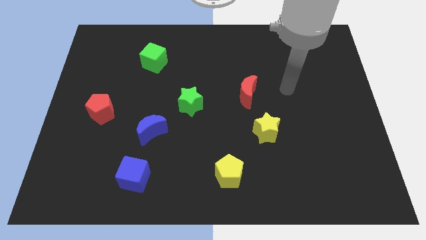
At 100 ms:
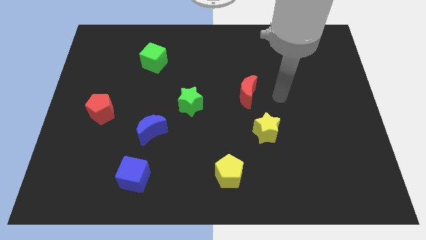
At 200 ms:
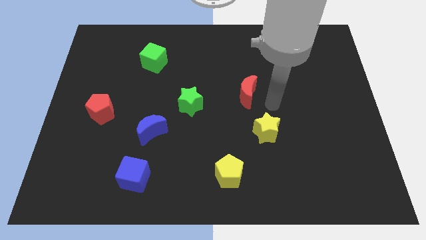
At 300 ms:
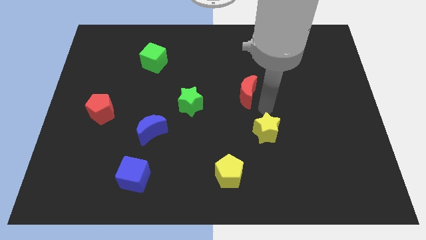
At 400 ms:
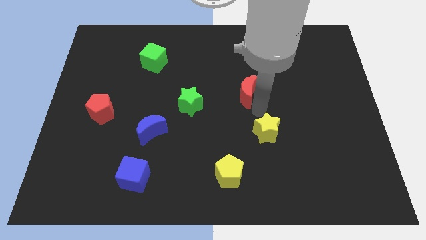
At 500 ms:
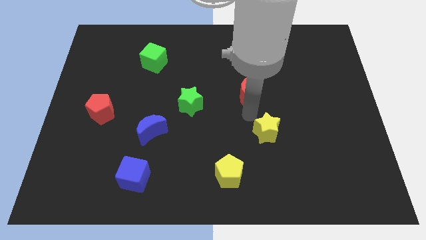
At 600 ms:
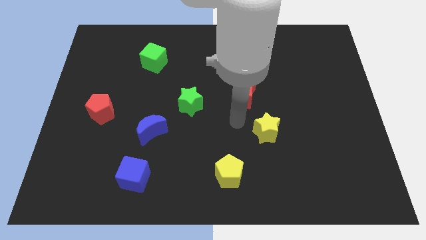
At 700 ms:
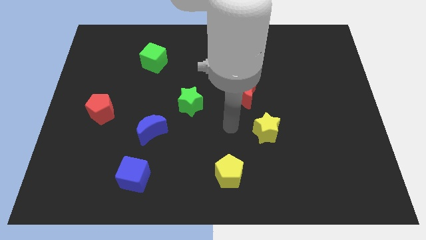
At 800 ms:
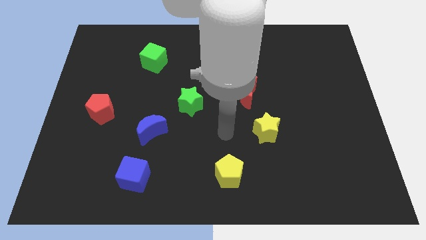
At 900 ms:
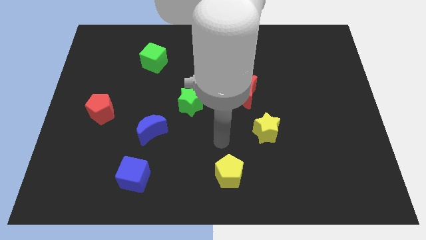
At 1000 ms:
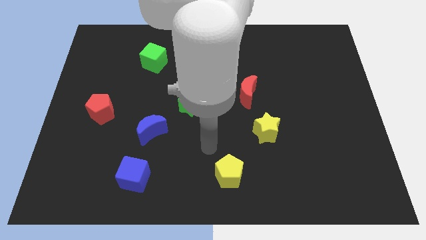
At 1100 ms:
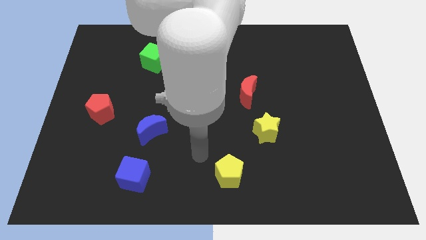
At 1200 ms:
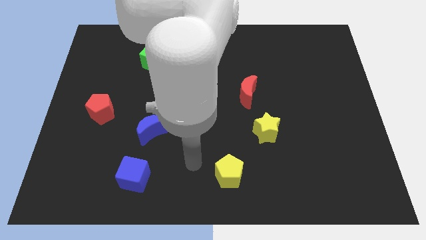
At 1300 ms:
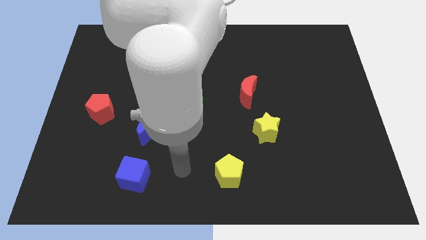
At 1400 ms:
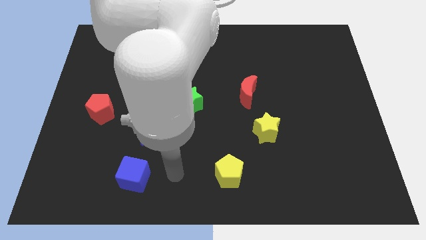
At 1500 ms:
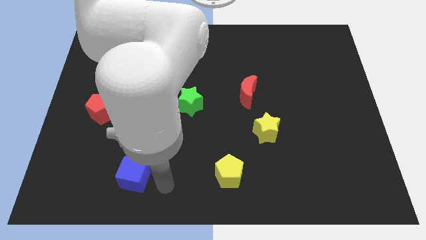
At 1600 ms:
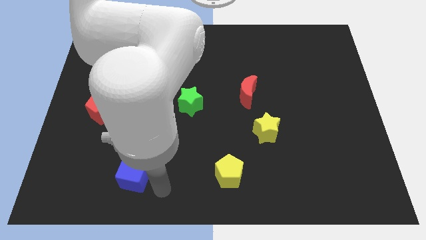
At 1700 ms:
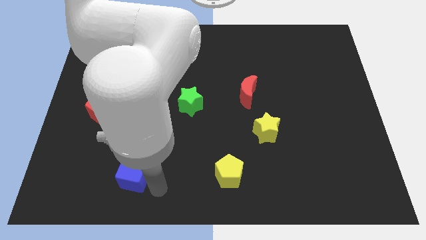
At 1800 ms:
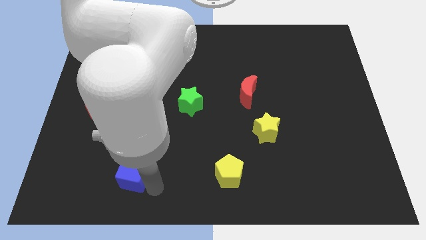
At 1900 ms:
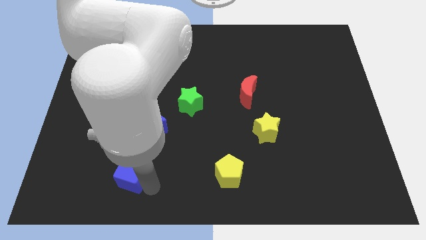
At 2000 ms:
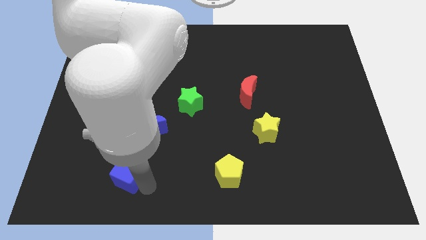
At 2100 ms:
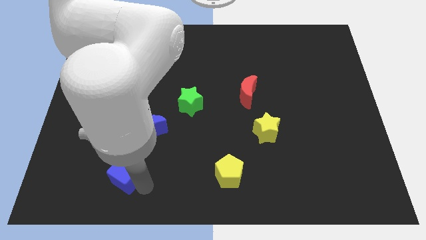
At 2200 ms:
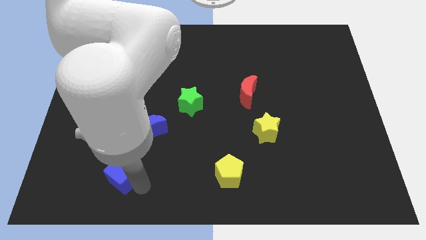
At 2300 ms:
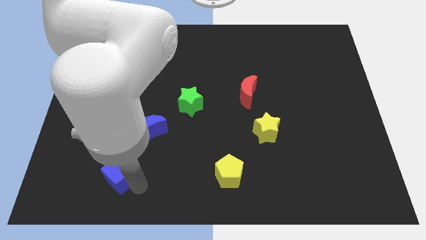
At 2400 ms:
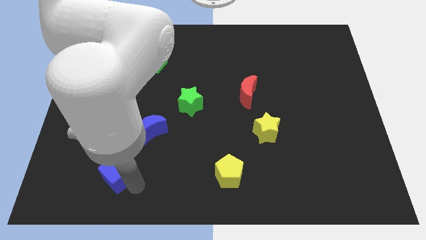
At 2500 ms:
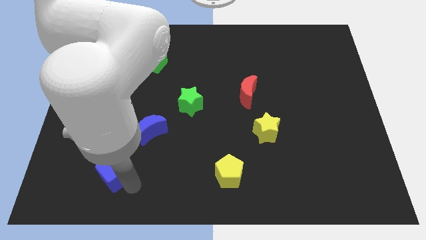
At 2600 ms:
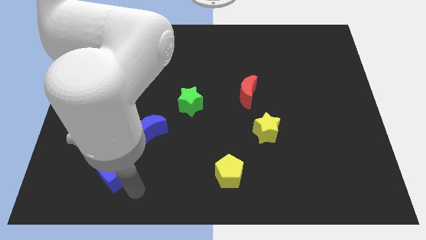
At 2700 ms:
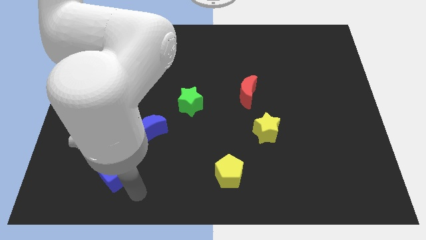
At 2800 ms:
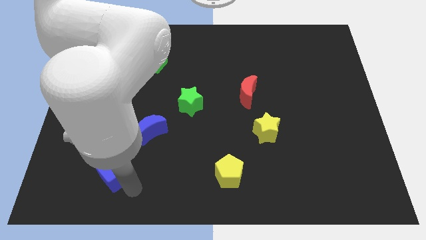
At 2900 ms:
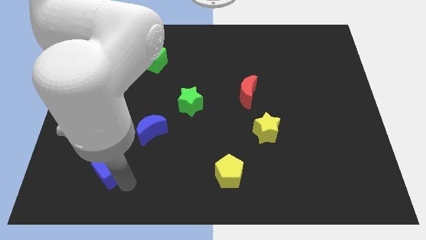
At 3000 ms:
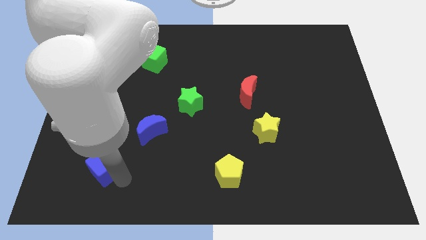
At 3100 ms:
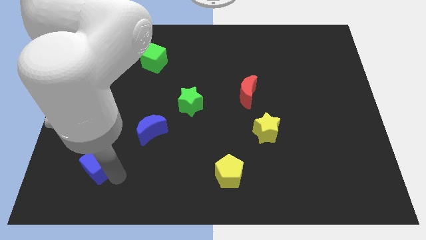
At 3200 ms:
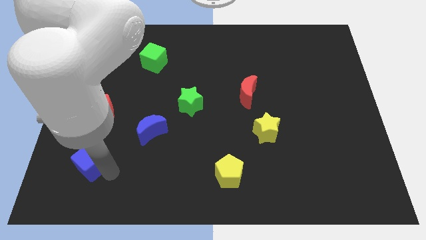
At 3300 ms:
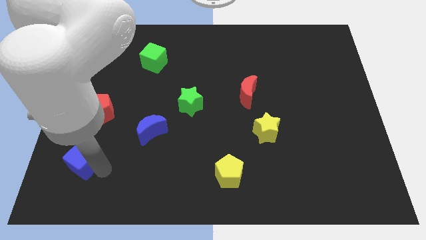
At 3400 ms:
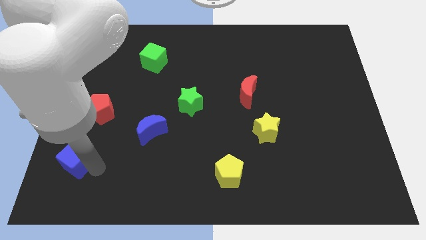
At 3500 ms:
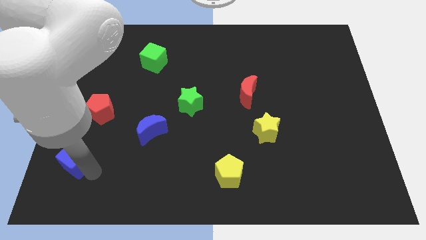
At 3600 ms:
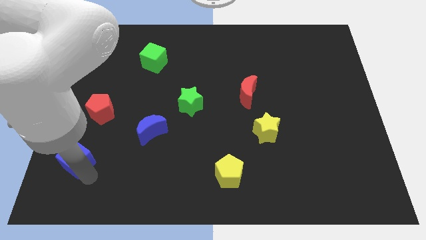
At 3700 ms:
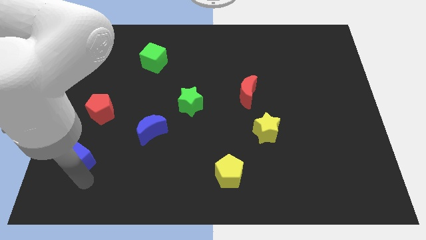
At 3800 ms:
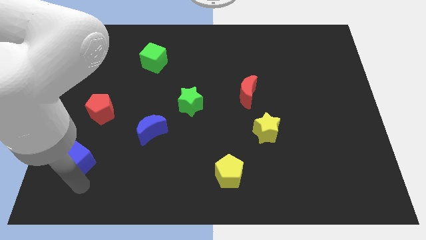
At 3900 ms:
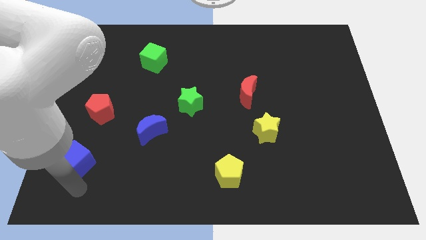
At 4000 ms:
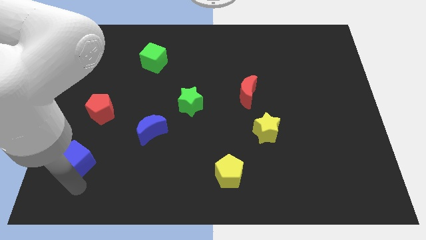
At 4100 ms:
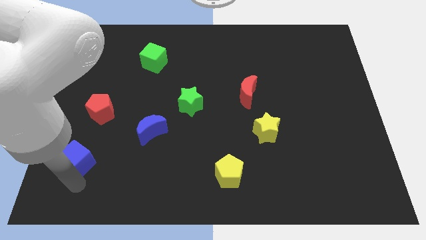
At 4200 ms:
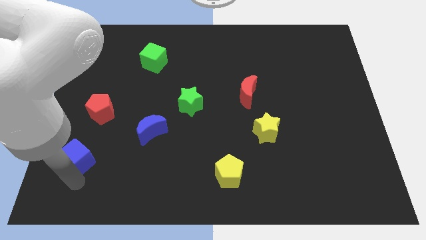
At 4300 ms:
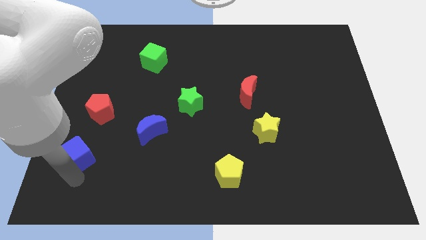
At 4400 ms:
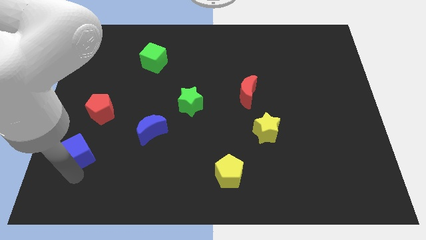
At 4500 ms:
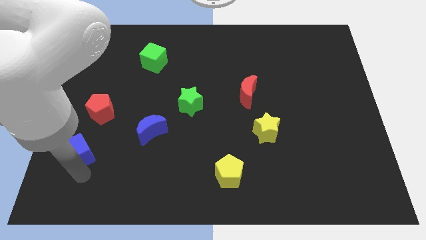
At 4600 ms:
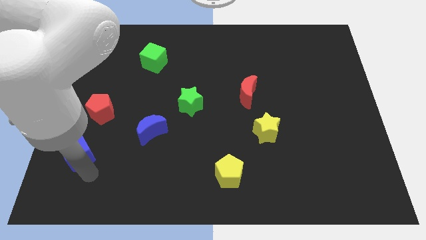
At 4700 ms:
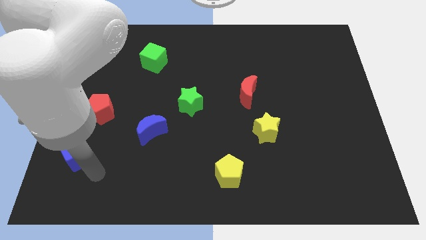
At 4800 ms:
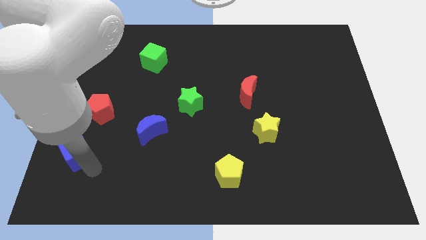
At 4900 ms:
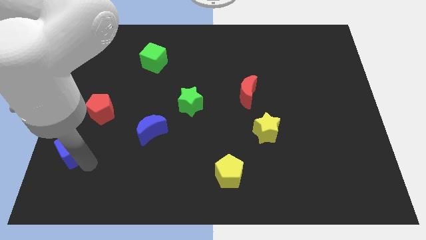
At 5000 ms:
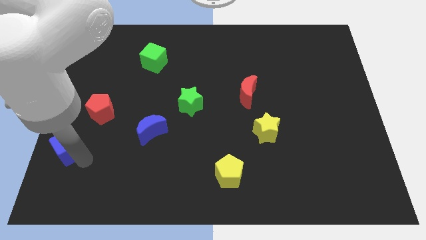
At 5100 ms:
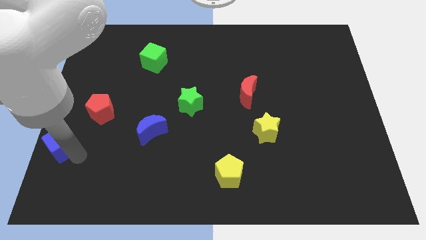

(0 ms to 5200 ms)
put the blue cube to the center left

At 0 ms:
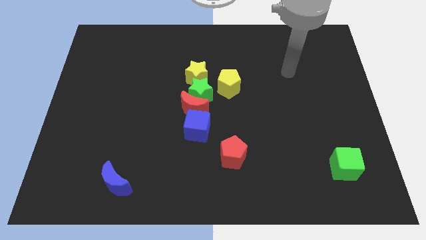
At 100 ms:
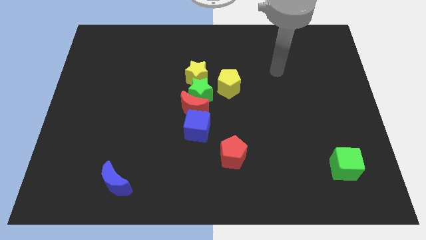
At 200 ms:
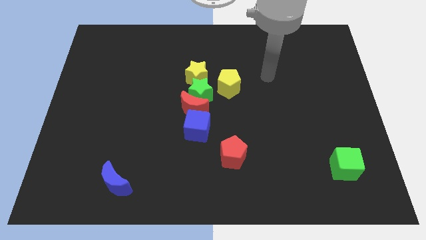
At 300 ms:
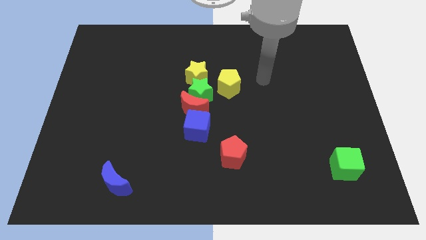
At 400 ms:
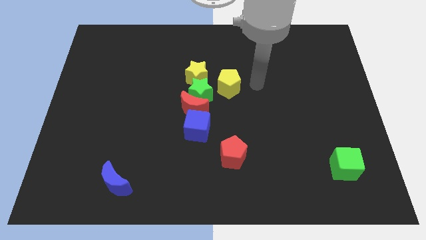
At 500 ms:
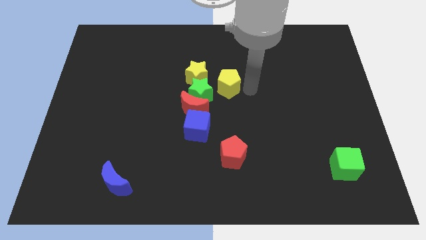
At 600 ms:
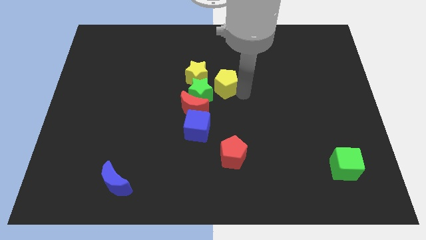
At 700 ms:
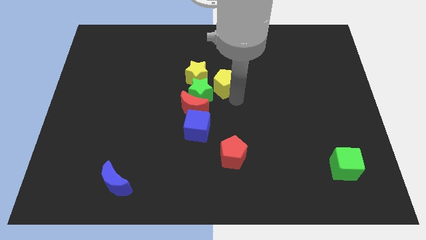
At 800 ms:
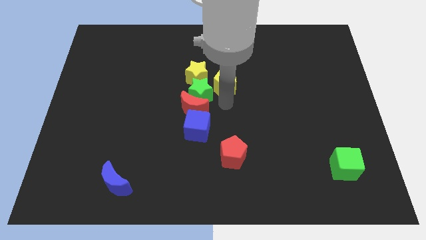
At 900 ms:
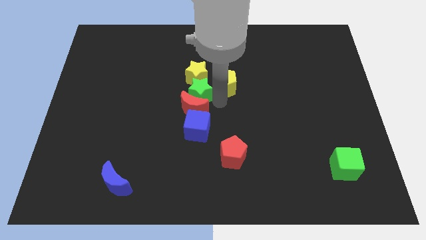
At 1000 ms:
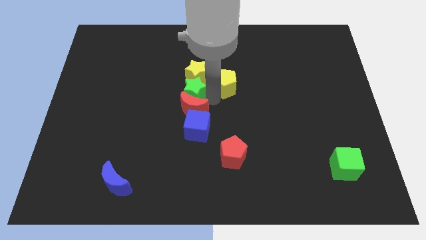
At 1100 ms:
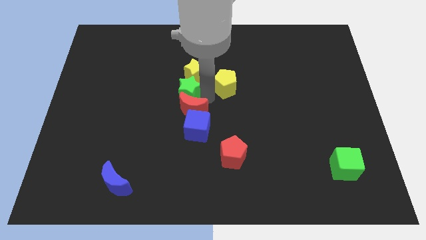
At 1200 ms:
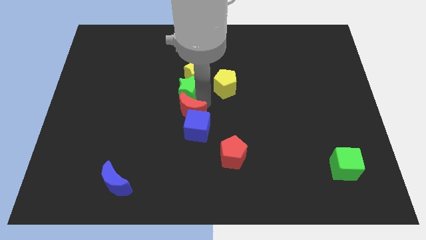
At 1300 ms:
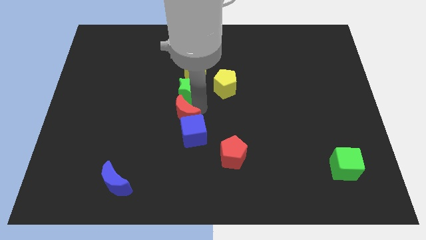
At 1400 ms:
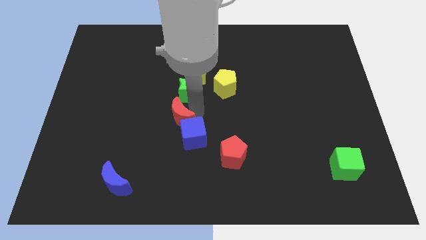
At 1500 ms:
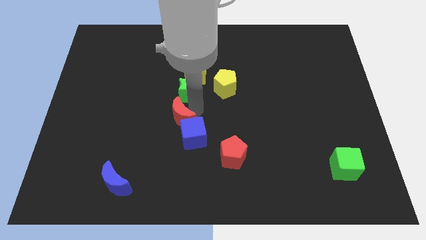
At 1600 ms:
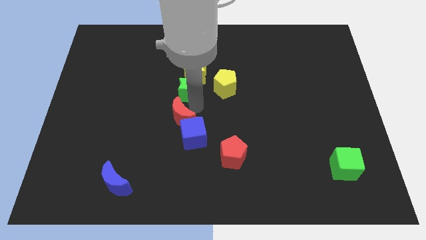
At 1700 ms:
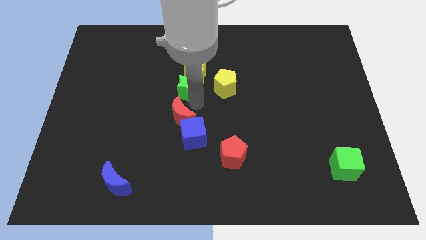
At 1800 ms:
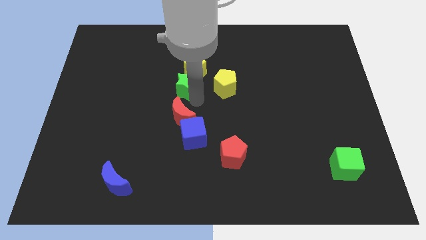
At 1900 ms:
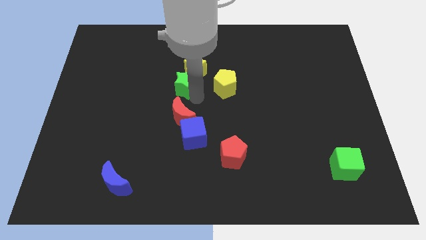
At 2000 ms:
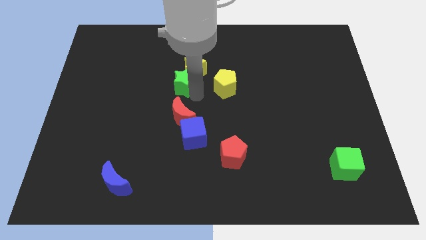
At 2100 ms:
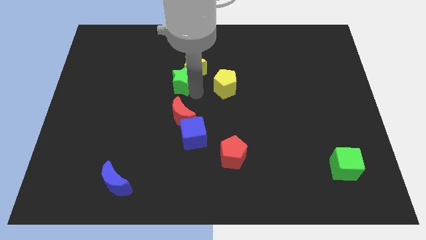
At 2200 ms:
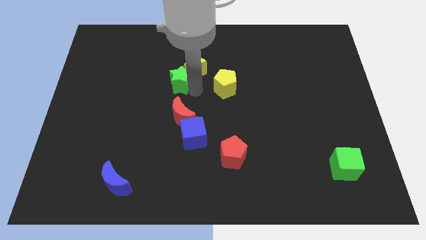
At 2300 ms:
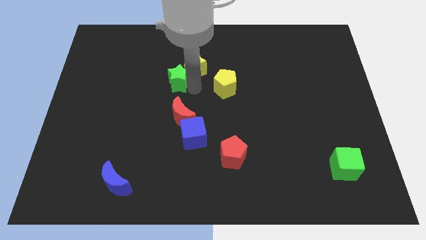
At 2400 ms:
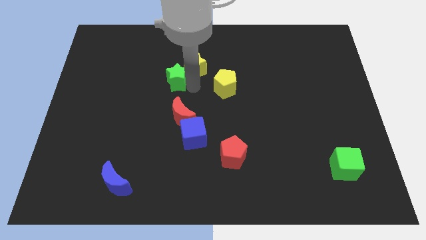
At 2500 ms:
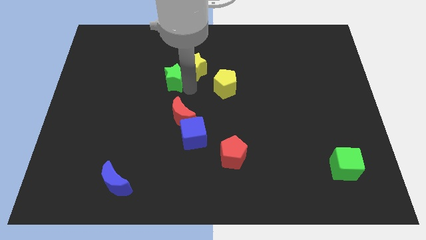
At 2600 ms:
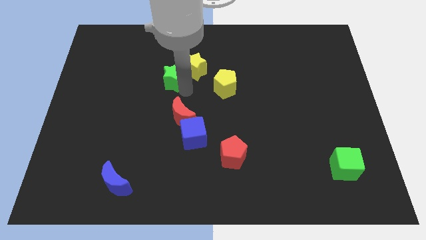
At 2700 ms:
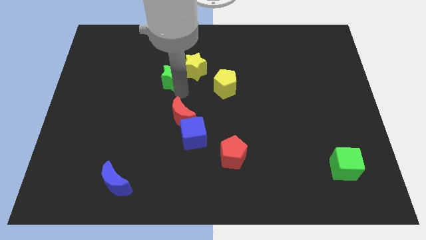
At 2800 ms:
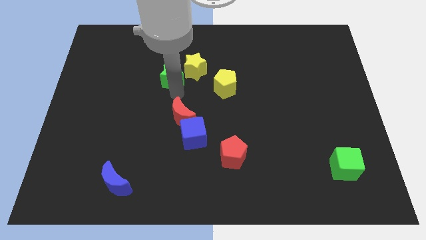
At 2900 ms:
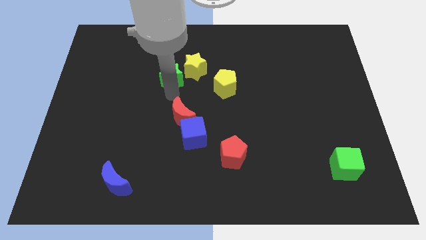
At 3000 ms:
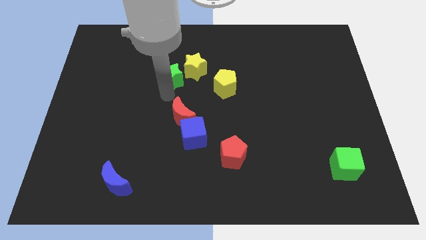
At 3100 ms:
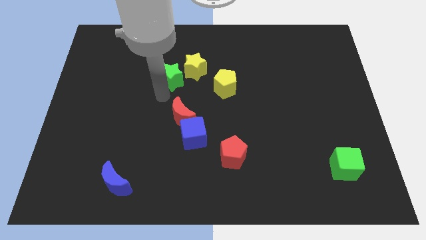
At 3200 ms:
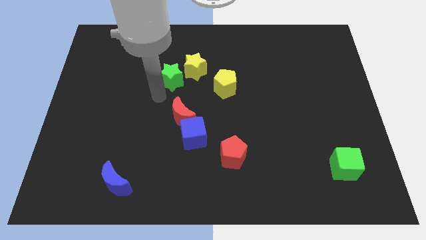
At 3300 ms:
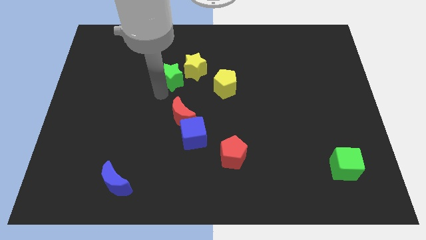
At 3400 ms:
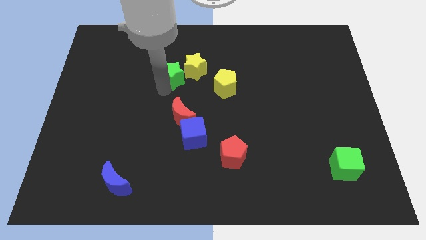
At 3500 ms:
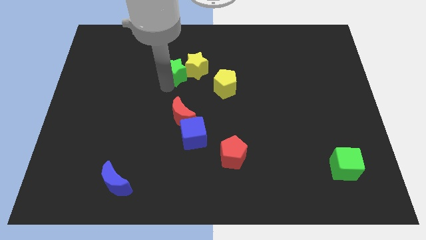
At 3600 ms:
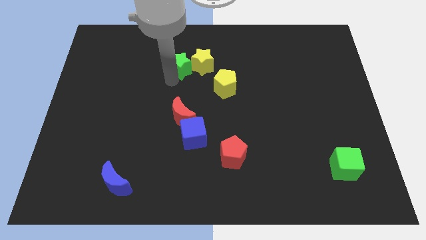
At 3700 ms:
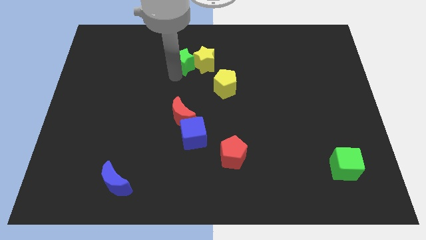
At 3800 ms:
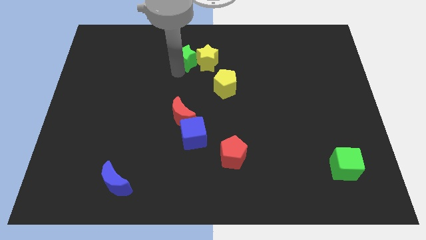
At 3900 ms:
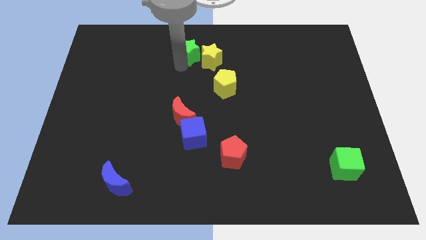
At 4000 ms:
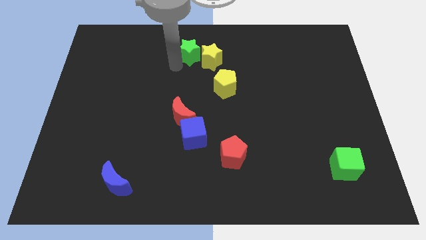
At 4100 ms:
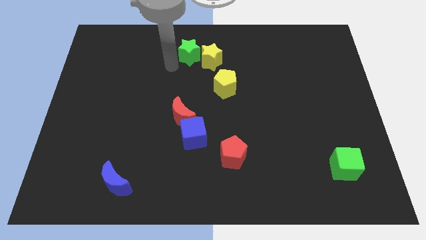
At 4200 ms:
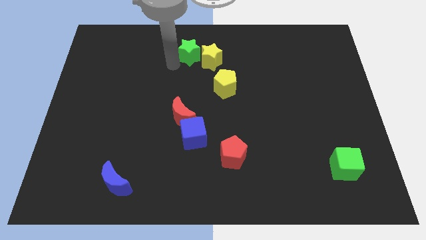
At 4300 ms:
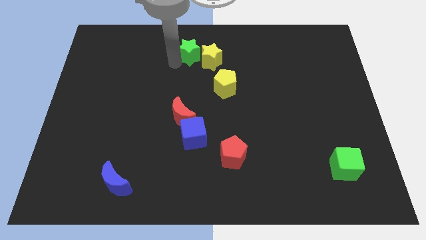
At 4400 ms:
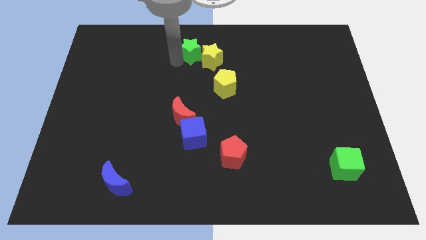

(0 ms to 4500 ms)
put the green star to the top side
